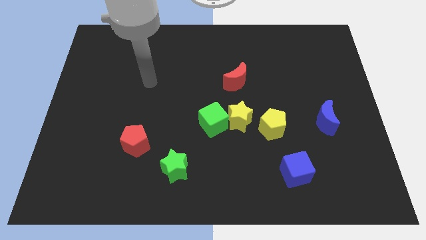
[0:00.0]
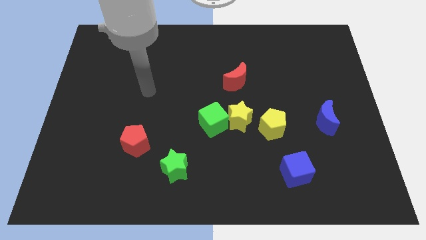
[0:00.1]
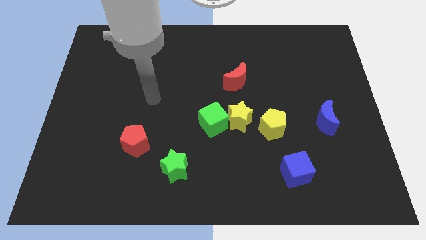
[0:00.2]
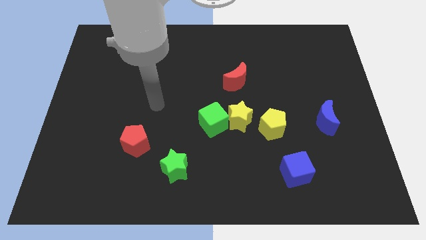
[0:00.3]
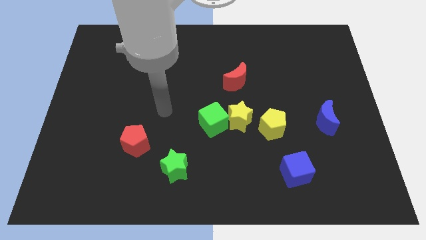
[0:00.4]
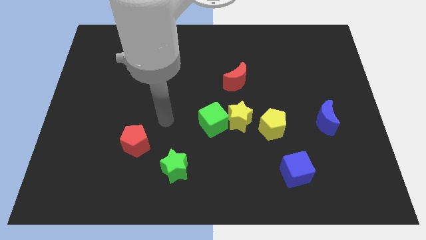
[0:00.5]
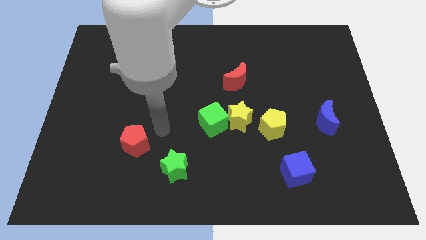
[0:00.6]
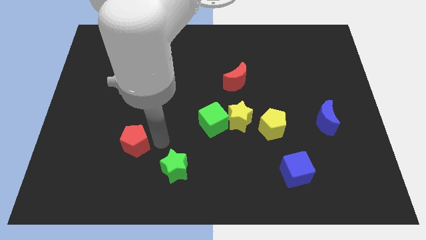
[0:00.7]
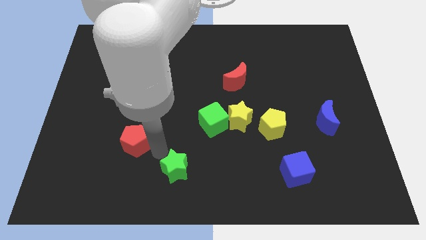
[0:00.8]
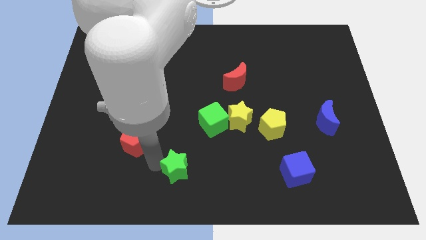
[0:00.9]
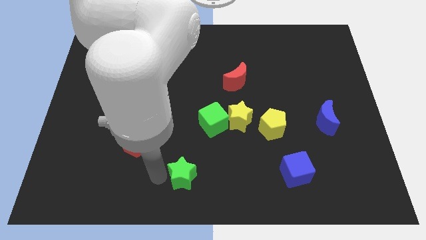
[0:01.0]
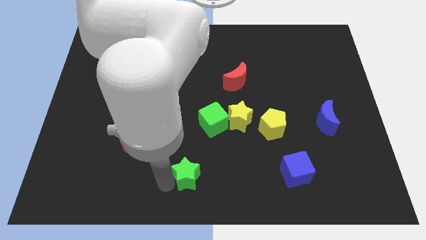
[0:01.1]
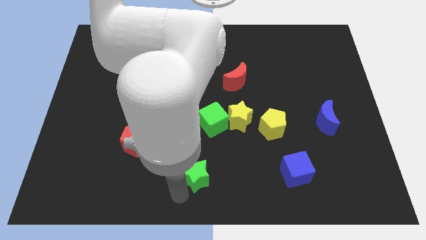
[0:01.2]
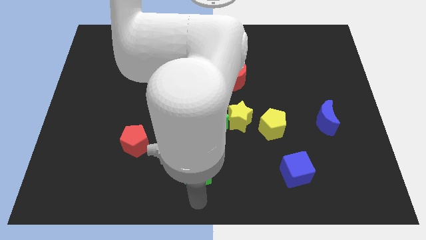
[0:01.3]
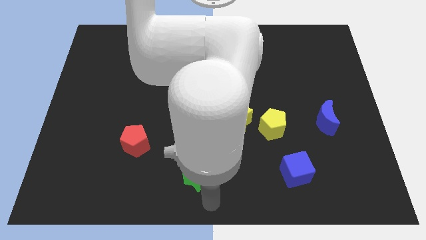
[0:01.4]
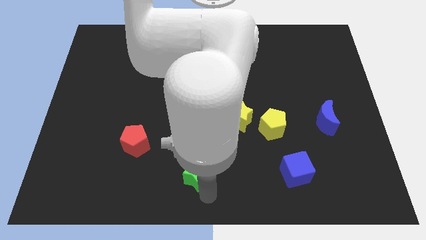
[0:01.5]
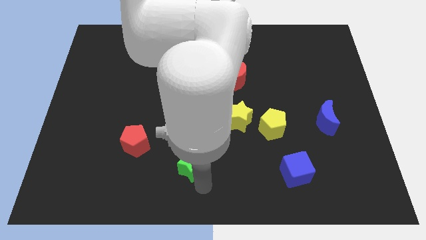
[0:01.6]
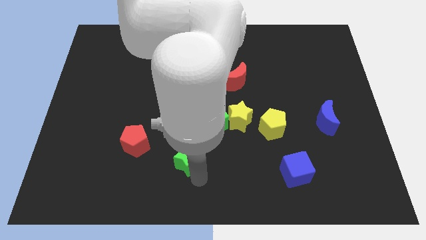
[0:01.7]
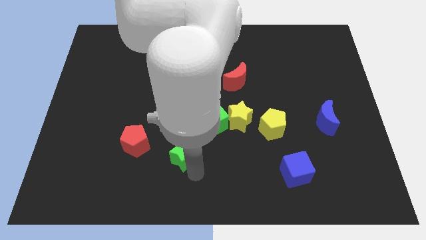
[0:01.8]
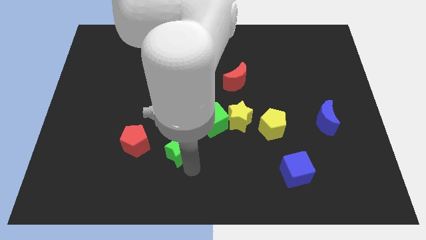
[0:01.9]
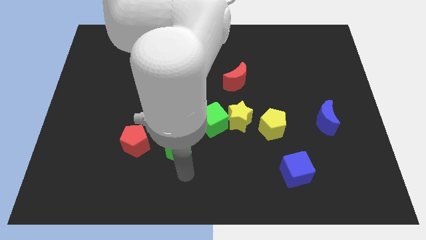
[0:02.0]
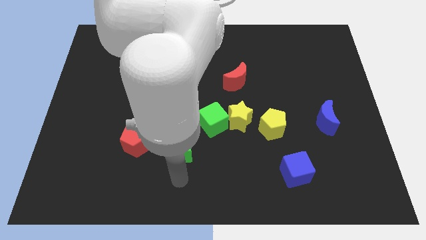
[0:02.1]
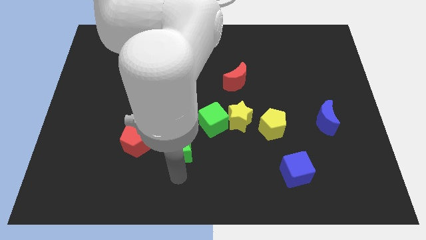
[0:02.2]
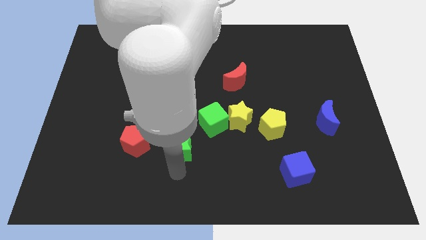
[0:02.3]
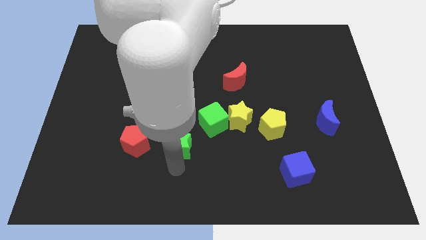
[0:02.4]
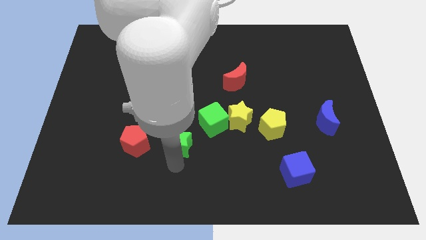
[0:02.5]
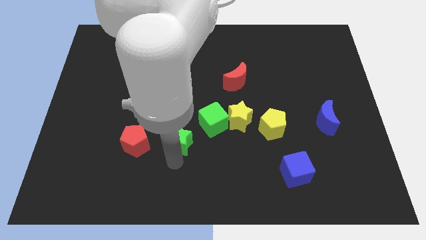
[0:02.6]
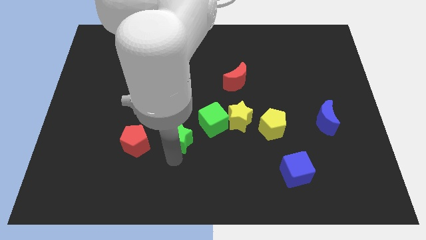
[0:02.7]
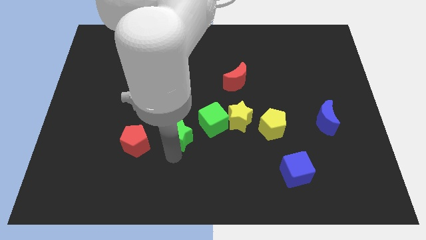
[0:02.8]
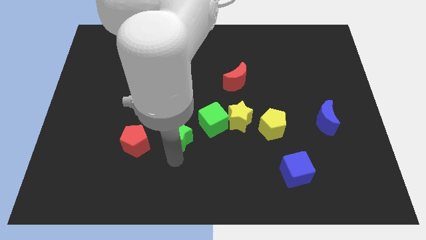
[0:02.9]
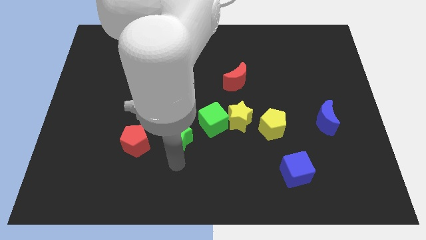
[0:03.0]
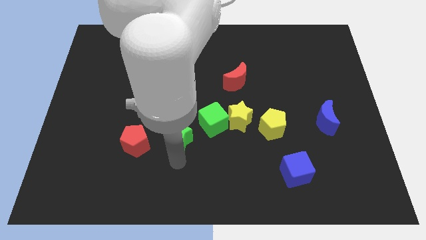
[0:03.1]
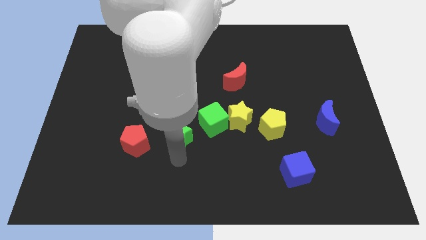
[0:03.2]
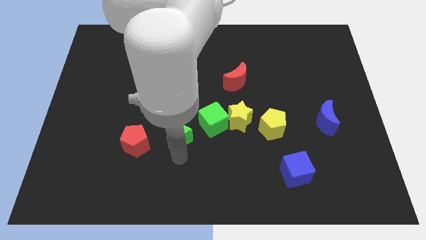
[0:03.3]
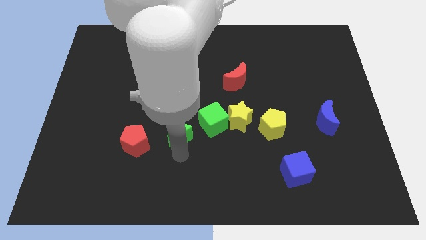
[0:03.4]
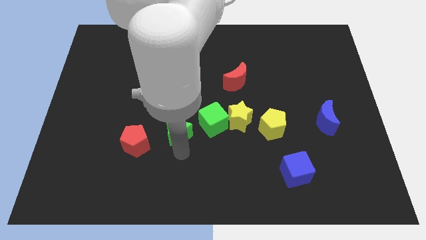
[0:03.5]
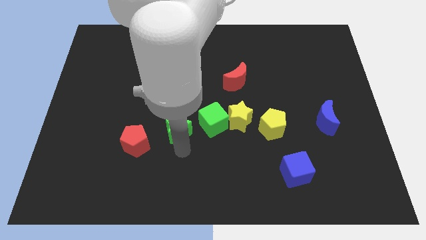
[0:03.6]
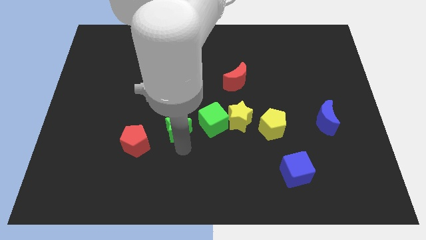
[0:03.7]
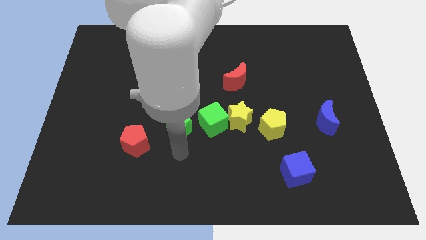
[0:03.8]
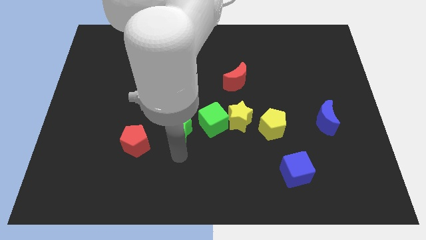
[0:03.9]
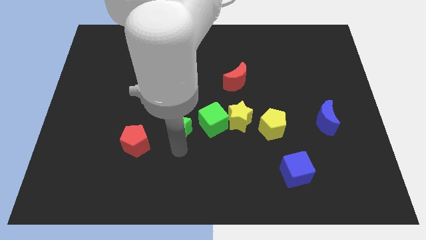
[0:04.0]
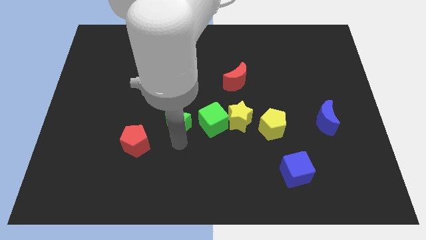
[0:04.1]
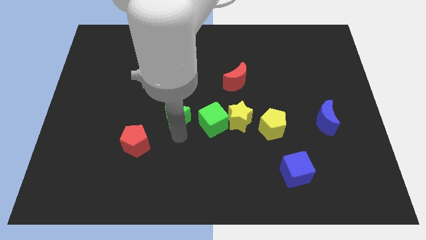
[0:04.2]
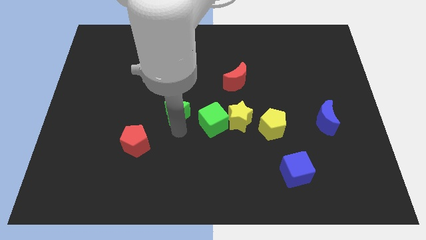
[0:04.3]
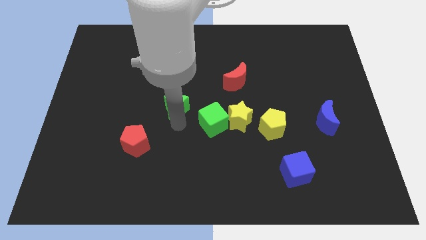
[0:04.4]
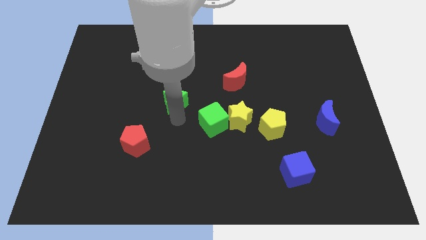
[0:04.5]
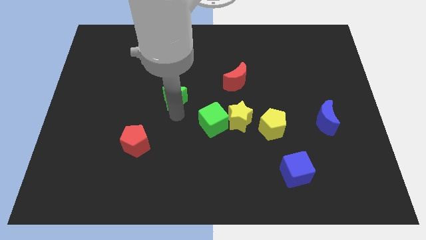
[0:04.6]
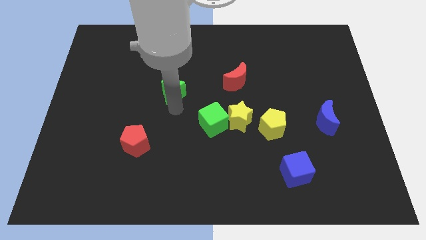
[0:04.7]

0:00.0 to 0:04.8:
push the green star upwards

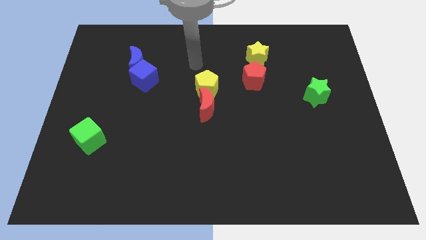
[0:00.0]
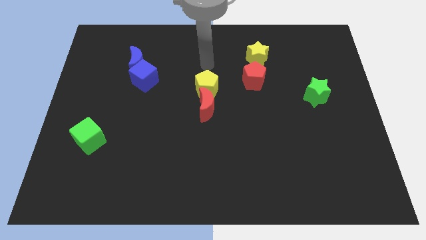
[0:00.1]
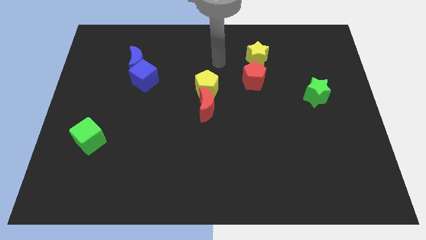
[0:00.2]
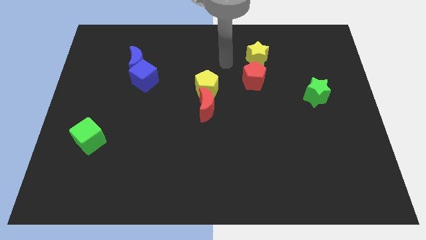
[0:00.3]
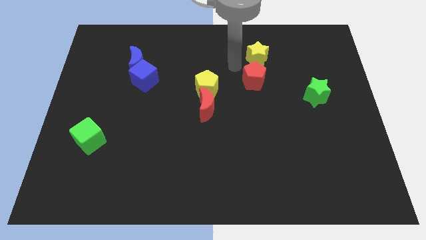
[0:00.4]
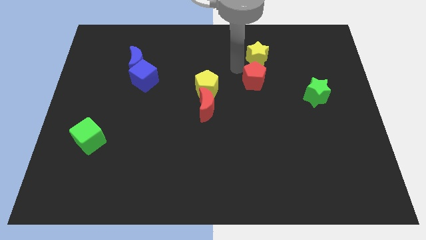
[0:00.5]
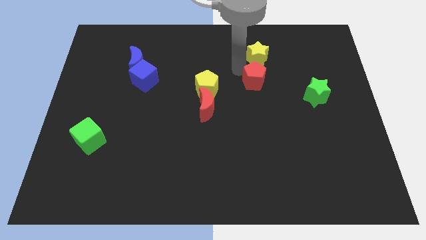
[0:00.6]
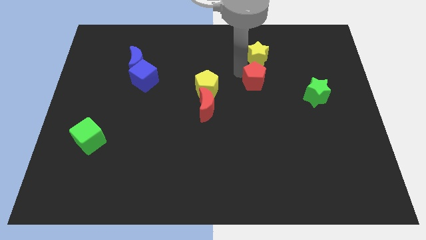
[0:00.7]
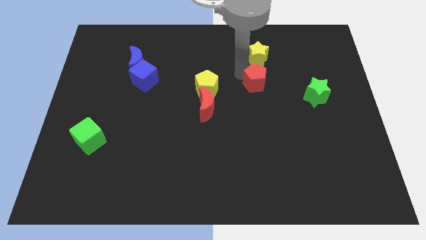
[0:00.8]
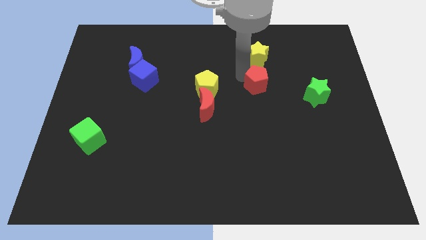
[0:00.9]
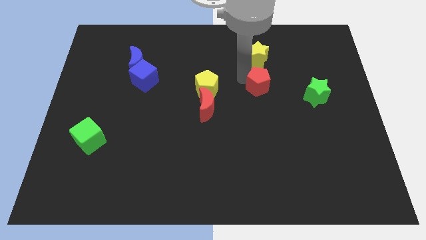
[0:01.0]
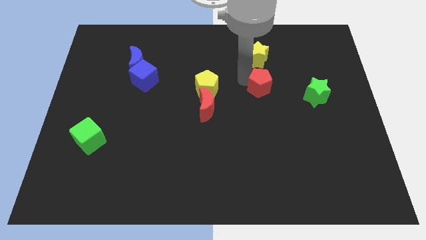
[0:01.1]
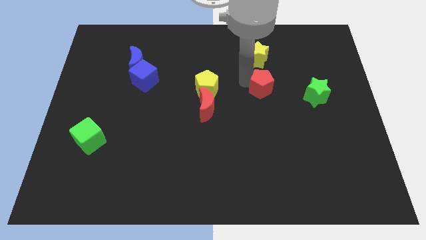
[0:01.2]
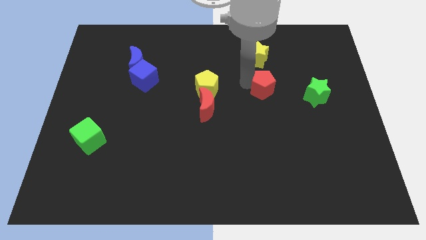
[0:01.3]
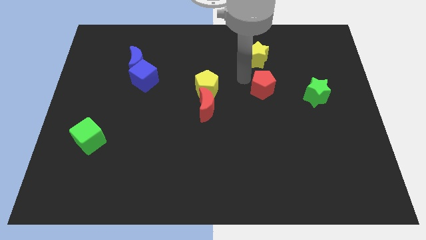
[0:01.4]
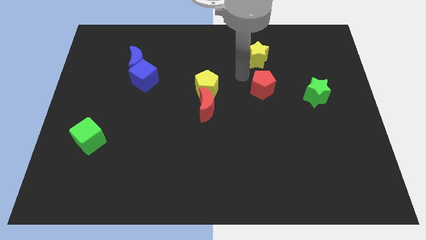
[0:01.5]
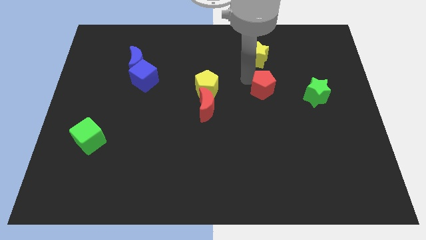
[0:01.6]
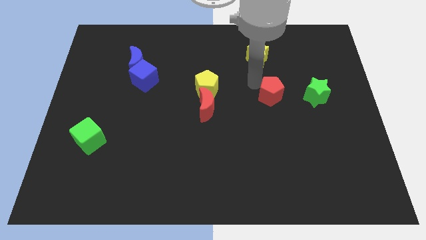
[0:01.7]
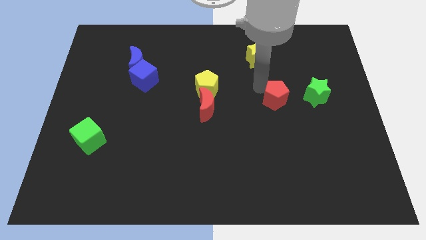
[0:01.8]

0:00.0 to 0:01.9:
move the red pentagon somewhat down and right

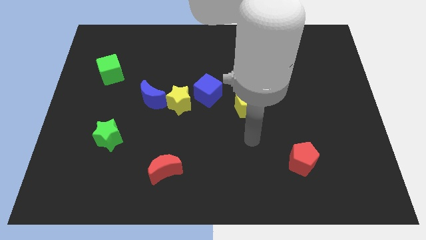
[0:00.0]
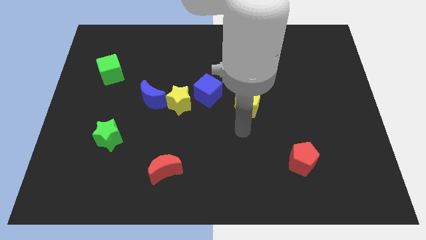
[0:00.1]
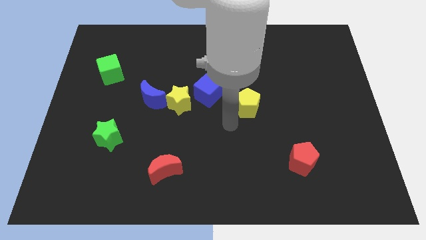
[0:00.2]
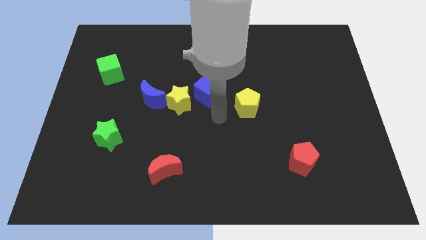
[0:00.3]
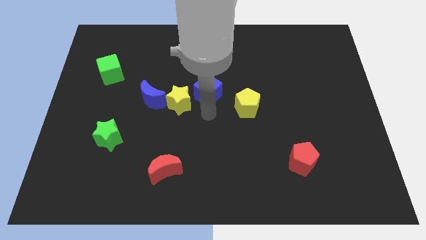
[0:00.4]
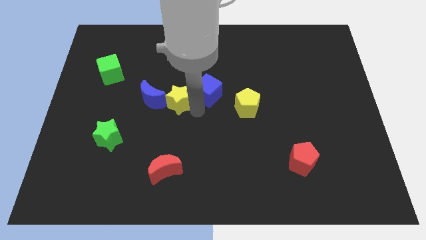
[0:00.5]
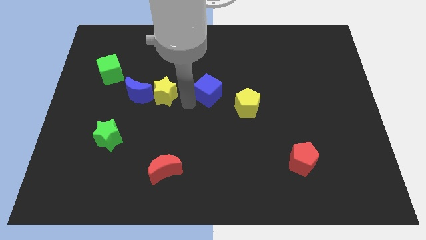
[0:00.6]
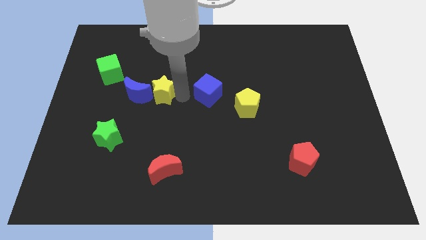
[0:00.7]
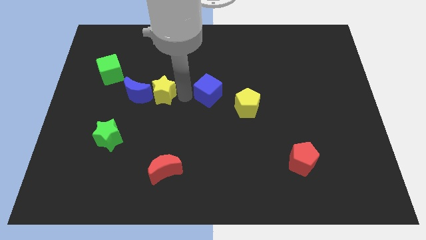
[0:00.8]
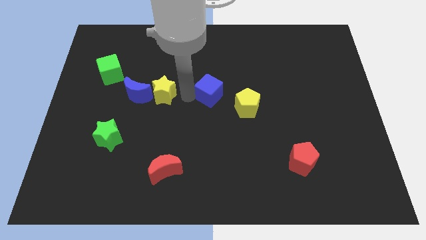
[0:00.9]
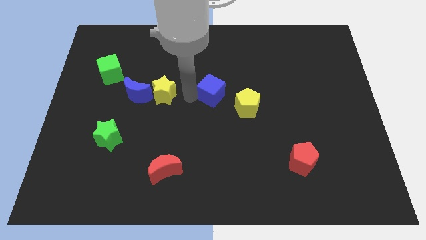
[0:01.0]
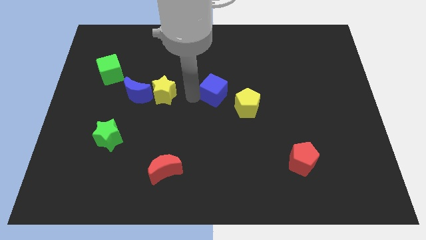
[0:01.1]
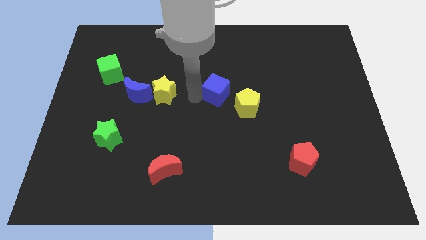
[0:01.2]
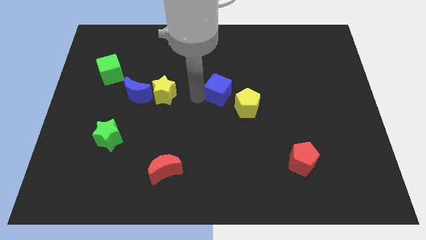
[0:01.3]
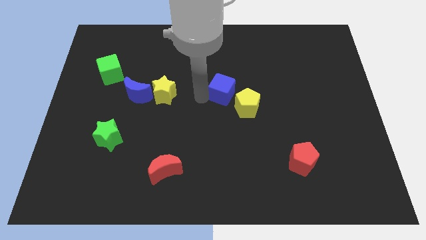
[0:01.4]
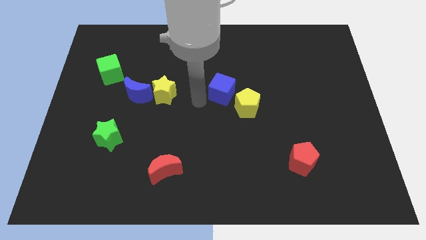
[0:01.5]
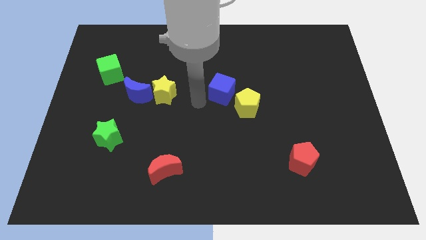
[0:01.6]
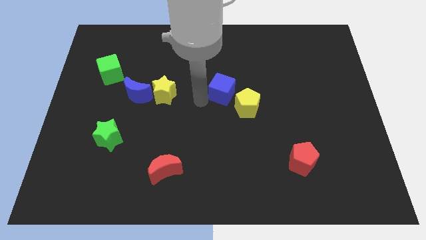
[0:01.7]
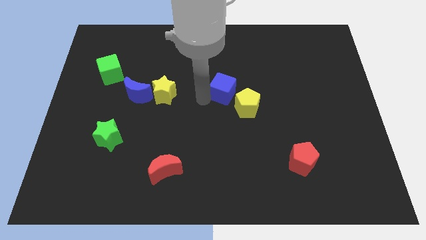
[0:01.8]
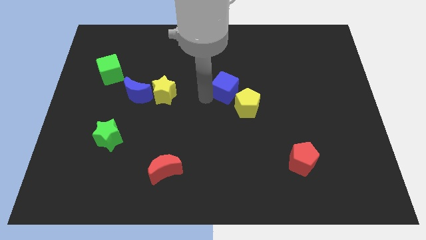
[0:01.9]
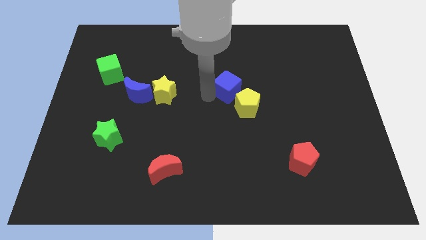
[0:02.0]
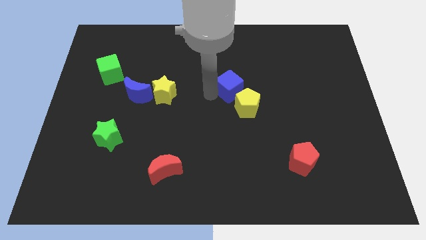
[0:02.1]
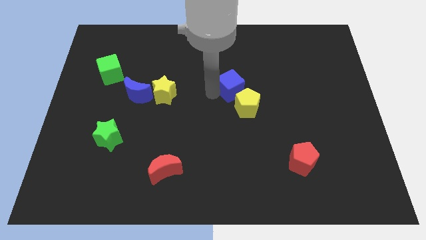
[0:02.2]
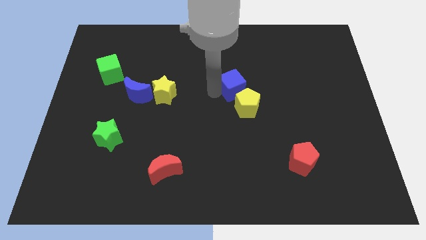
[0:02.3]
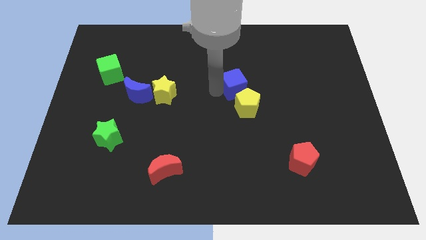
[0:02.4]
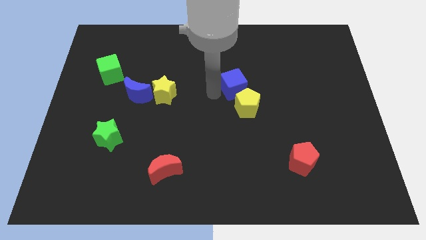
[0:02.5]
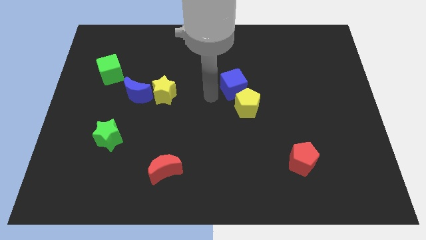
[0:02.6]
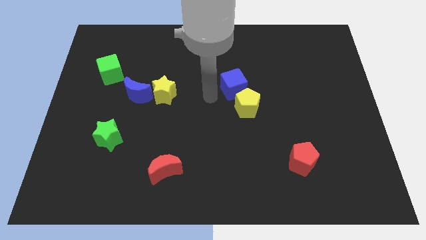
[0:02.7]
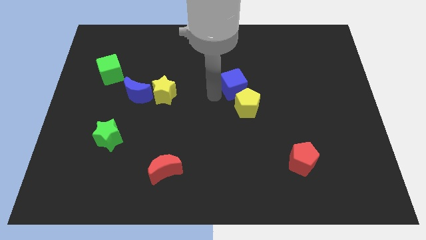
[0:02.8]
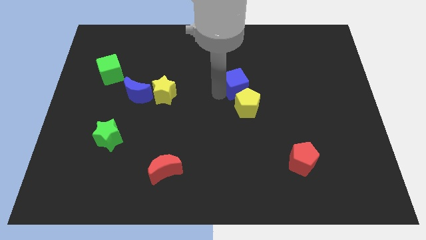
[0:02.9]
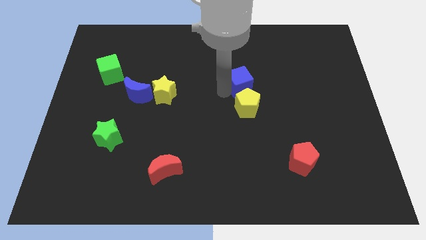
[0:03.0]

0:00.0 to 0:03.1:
slightly push the blue cube right
